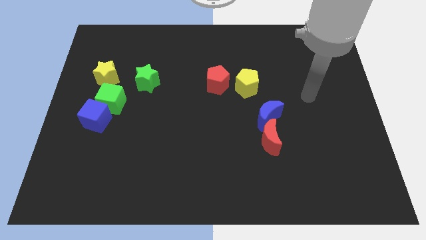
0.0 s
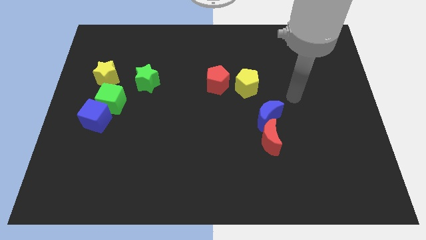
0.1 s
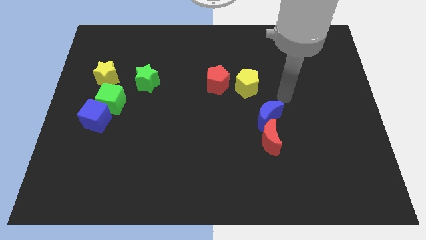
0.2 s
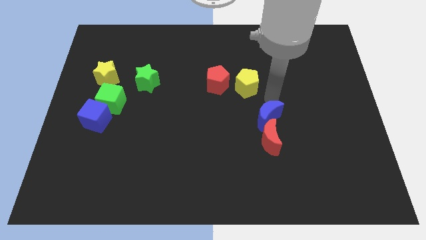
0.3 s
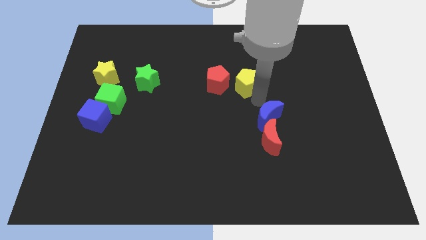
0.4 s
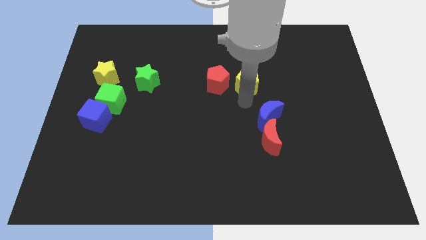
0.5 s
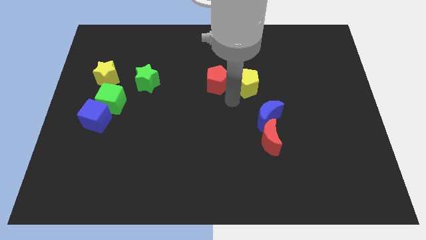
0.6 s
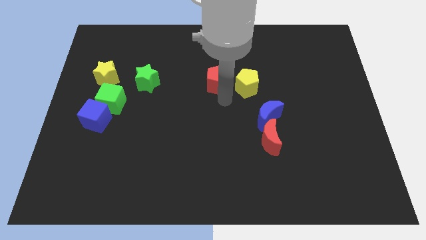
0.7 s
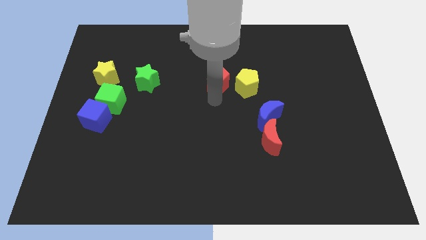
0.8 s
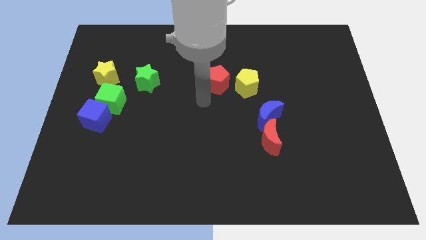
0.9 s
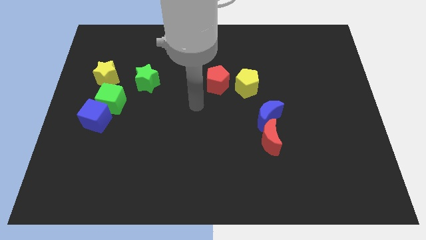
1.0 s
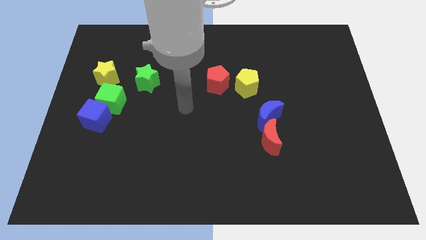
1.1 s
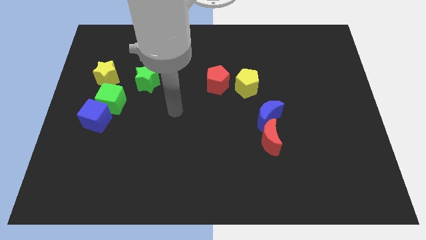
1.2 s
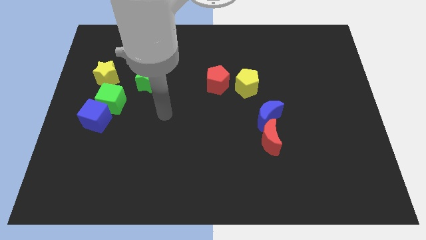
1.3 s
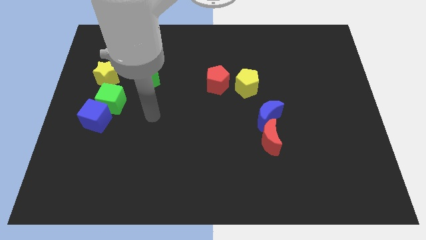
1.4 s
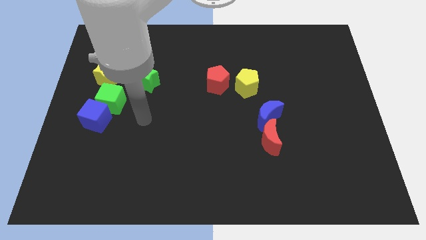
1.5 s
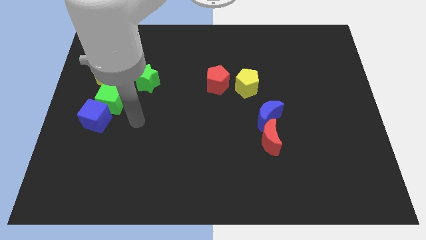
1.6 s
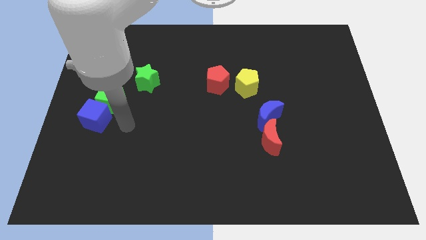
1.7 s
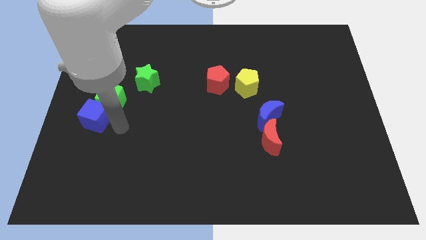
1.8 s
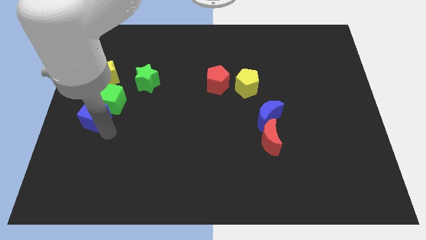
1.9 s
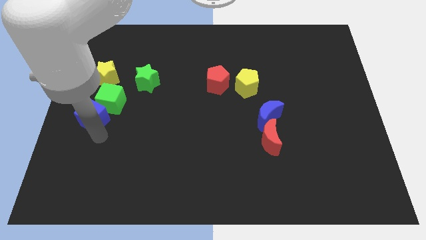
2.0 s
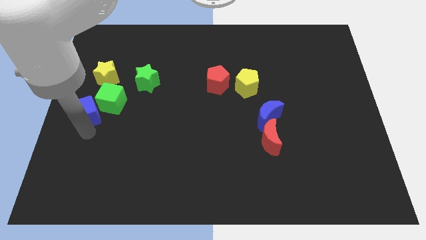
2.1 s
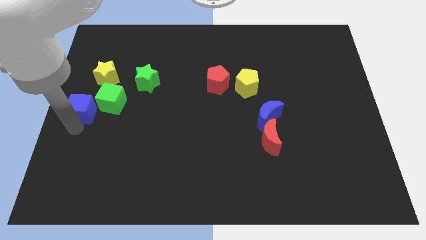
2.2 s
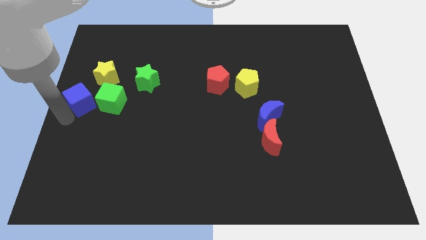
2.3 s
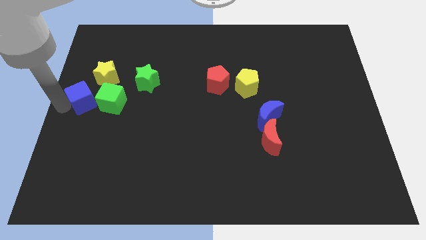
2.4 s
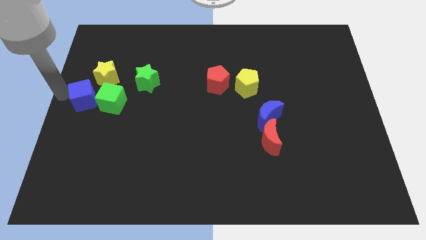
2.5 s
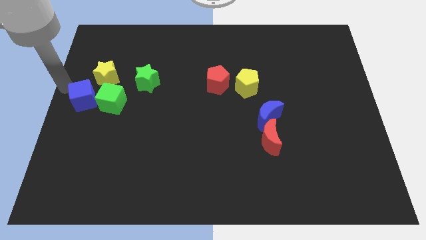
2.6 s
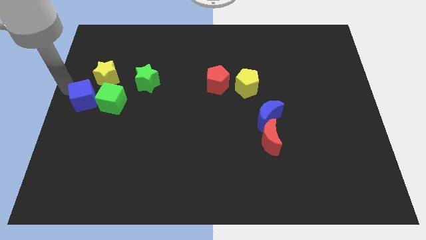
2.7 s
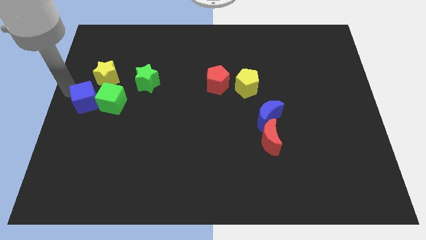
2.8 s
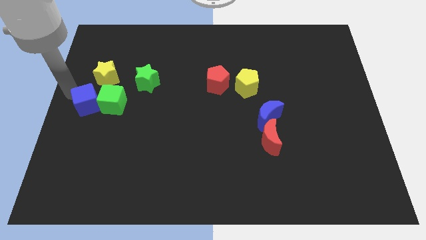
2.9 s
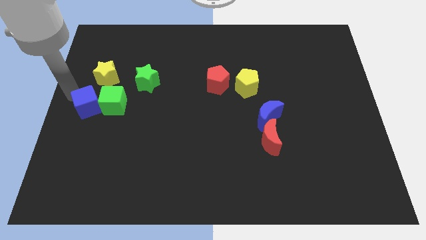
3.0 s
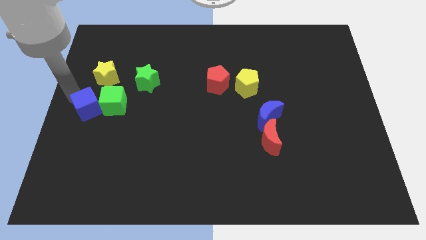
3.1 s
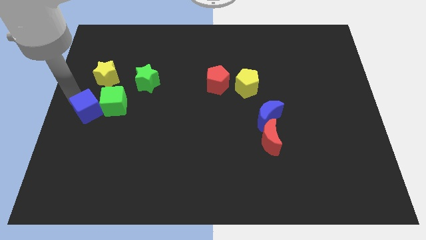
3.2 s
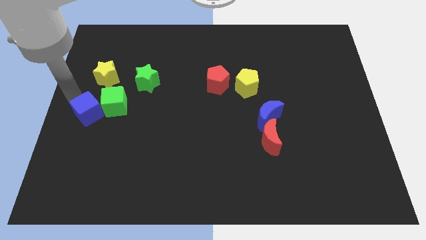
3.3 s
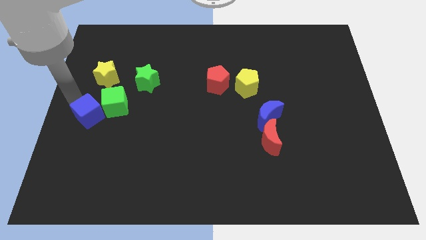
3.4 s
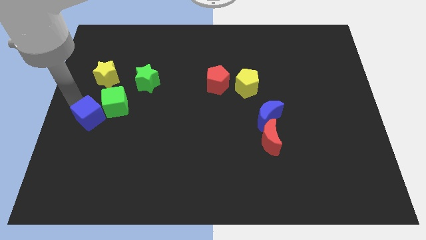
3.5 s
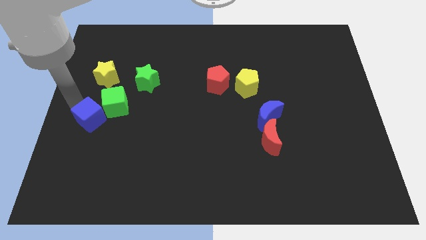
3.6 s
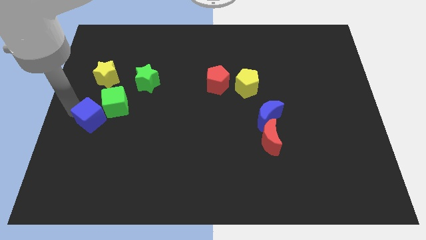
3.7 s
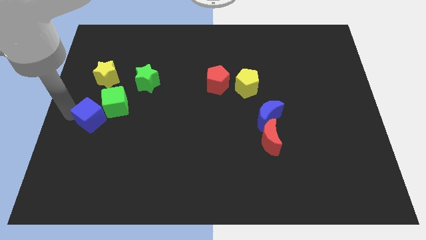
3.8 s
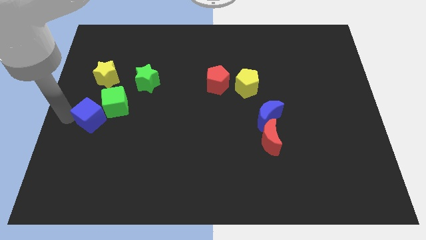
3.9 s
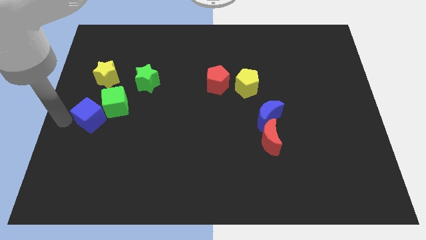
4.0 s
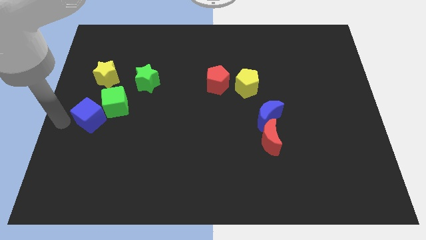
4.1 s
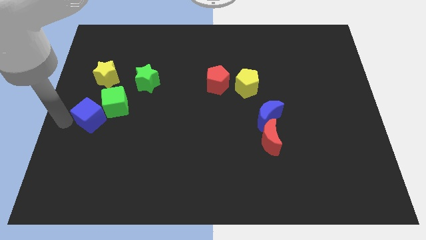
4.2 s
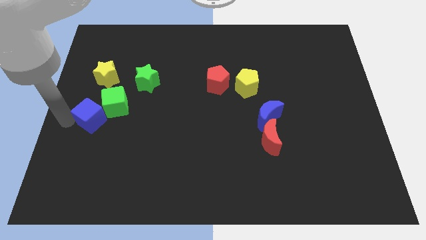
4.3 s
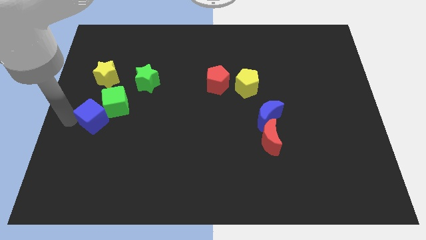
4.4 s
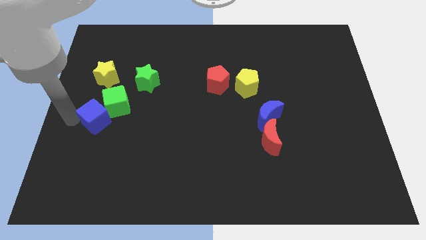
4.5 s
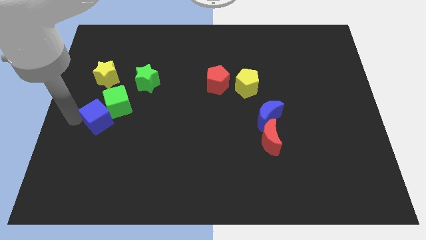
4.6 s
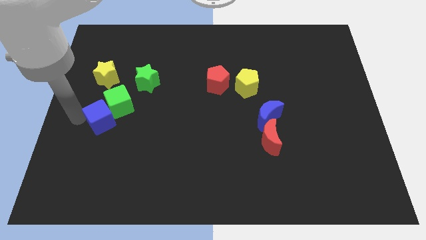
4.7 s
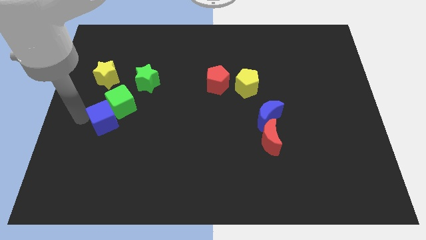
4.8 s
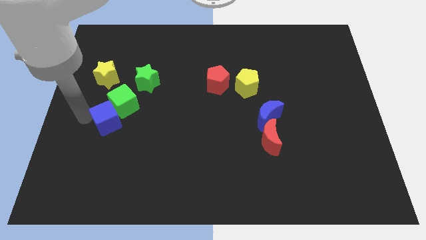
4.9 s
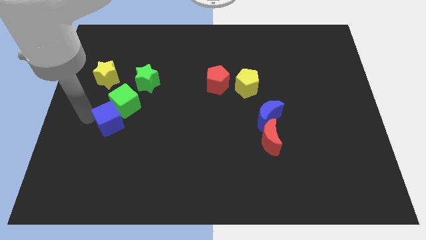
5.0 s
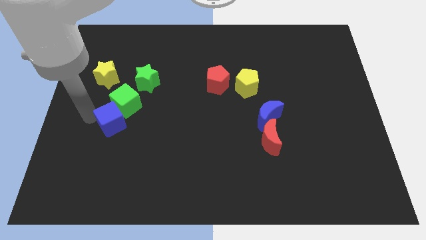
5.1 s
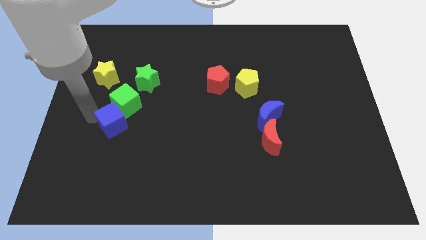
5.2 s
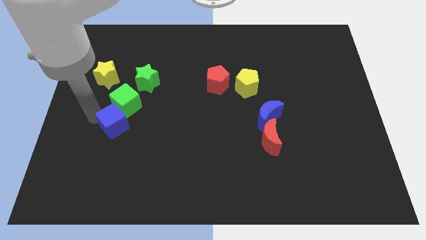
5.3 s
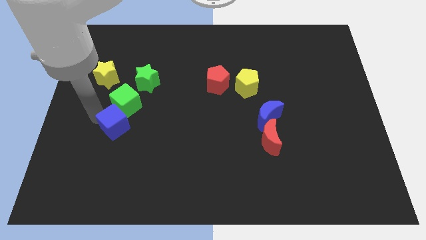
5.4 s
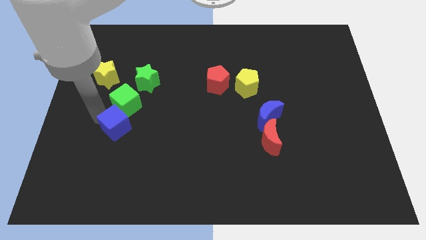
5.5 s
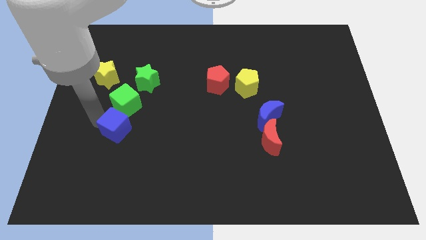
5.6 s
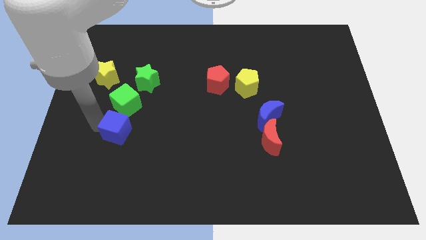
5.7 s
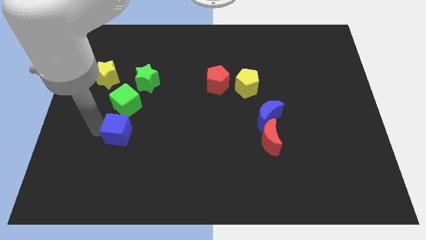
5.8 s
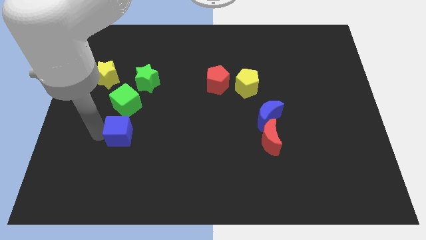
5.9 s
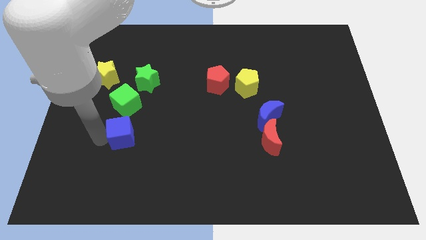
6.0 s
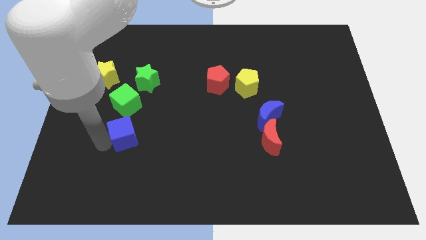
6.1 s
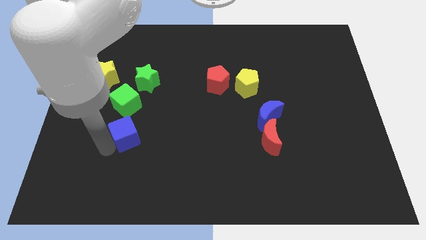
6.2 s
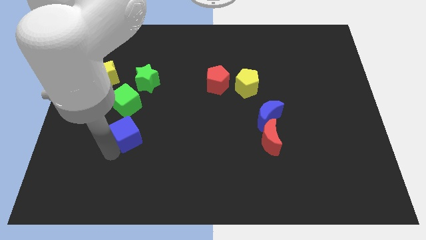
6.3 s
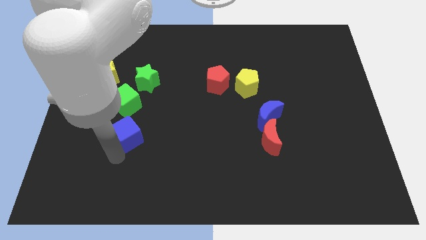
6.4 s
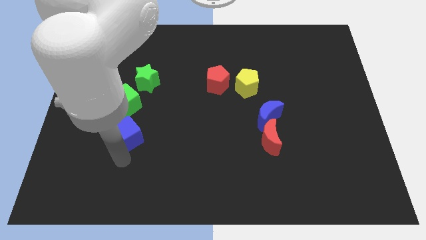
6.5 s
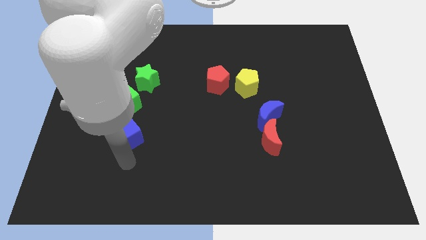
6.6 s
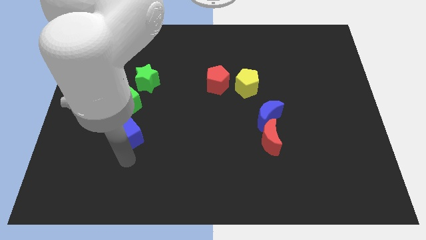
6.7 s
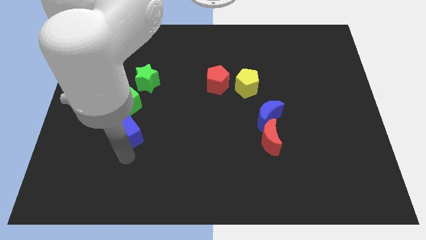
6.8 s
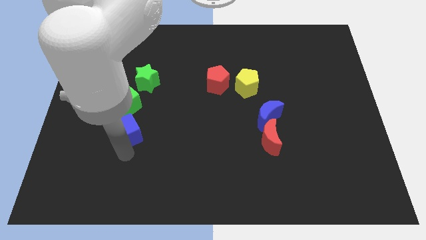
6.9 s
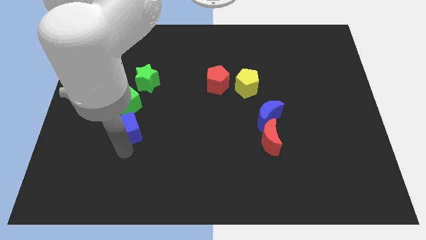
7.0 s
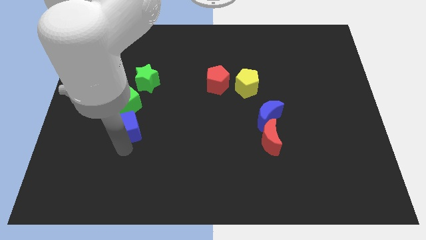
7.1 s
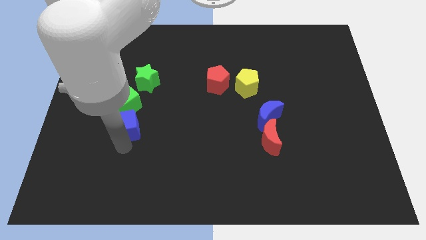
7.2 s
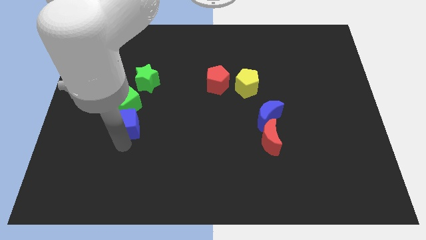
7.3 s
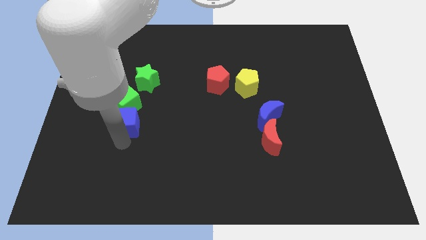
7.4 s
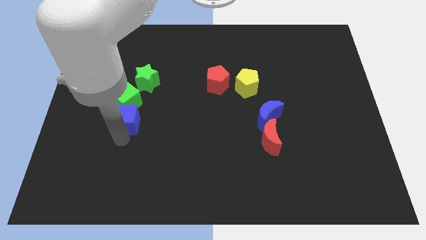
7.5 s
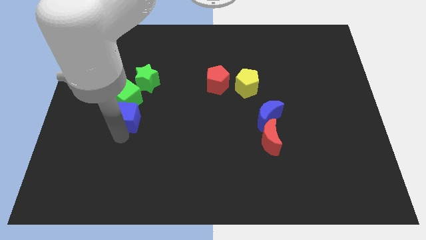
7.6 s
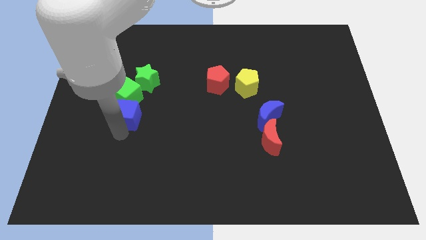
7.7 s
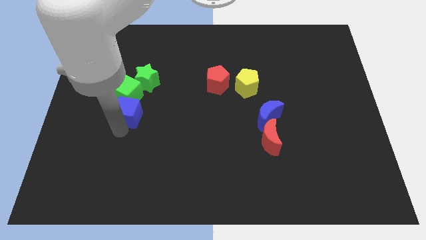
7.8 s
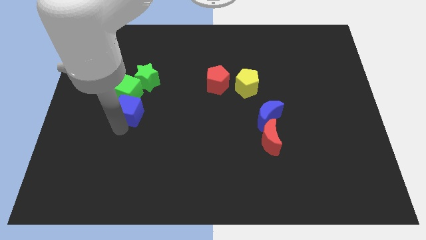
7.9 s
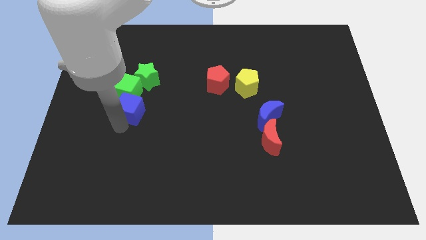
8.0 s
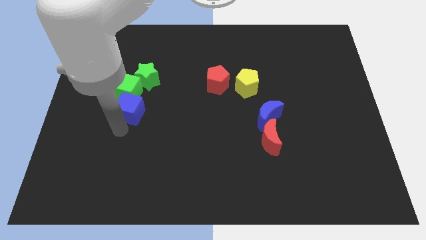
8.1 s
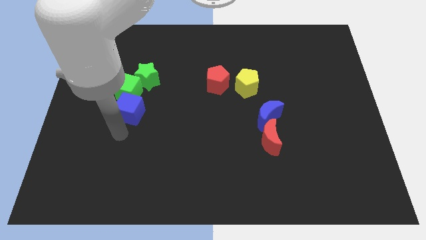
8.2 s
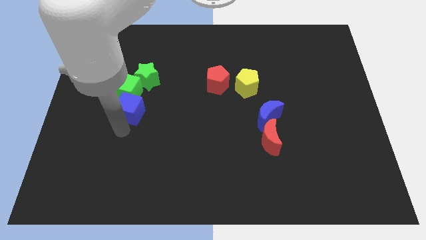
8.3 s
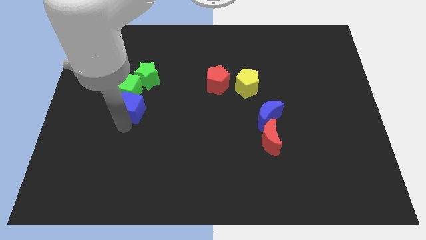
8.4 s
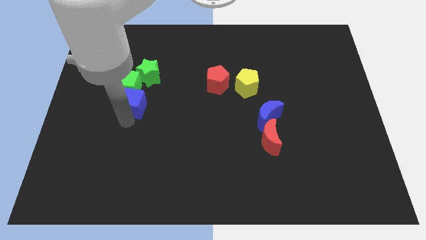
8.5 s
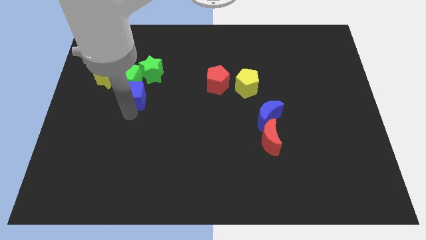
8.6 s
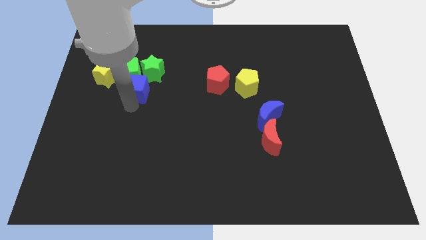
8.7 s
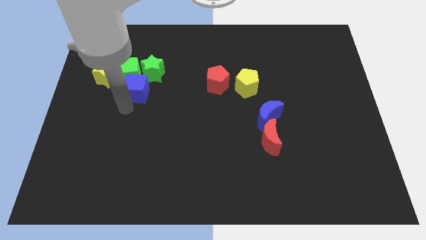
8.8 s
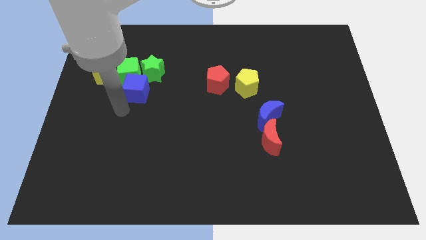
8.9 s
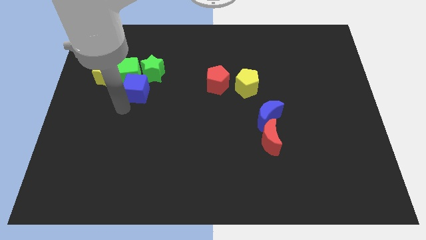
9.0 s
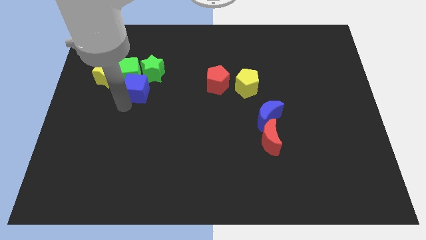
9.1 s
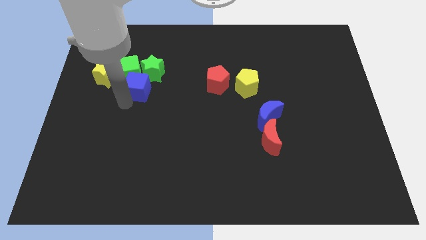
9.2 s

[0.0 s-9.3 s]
put the blue cube next to the green star
